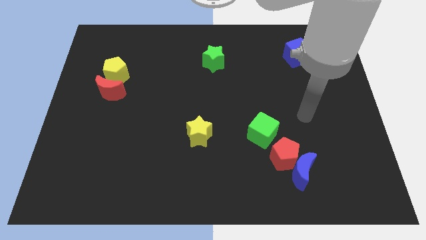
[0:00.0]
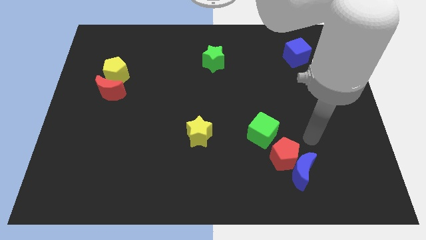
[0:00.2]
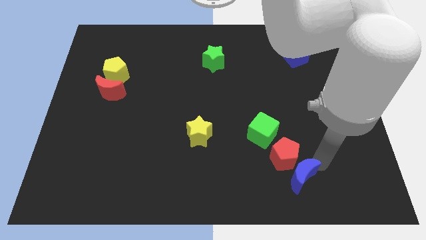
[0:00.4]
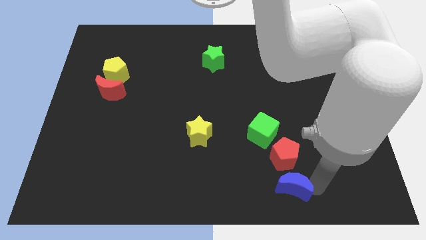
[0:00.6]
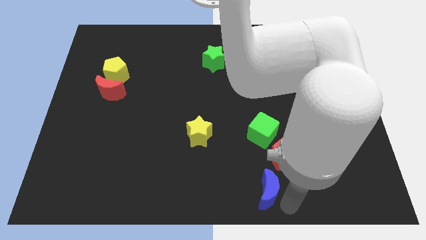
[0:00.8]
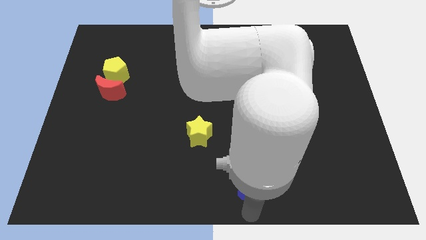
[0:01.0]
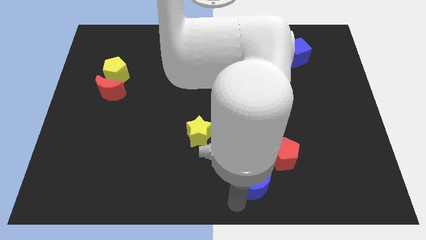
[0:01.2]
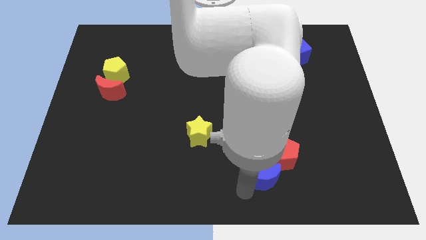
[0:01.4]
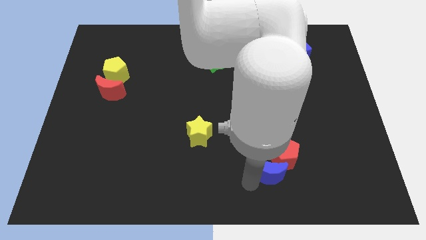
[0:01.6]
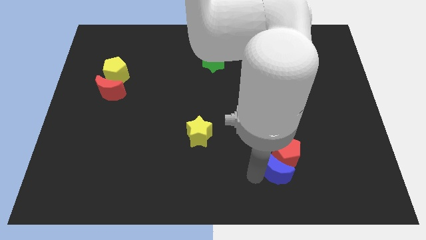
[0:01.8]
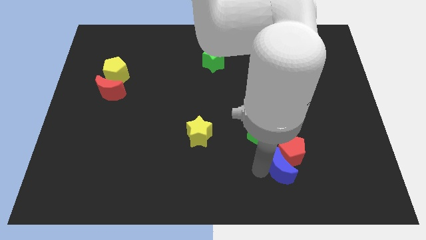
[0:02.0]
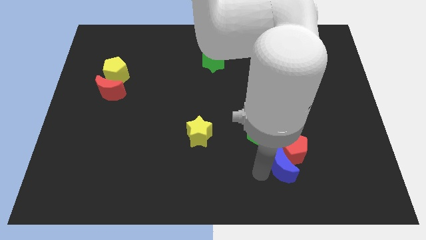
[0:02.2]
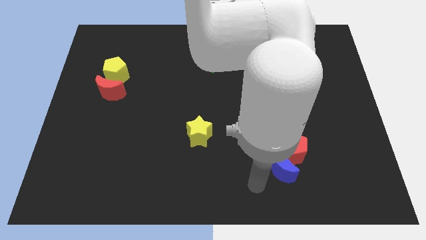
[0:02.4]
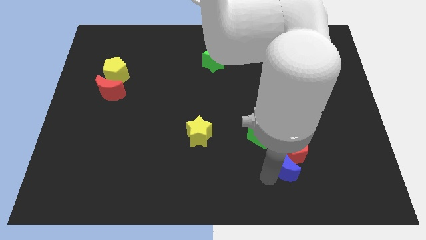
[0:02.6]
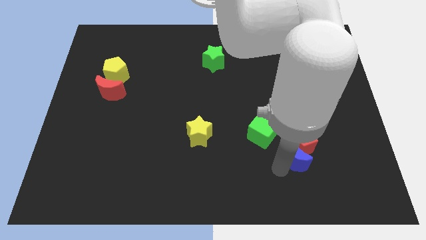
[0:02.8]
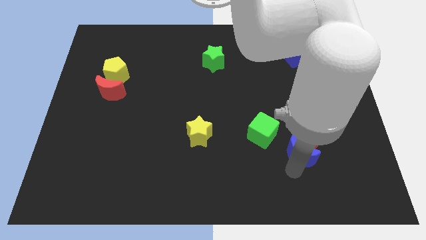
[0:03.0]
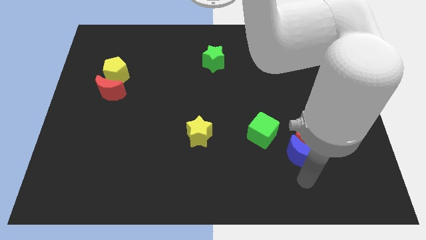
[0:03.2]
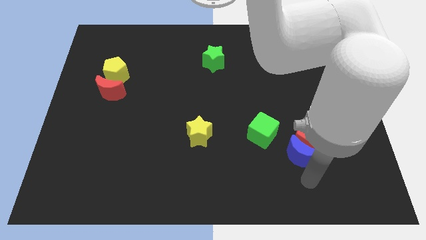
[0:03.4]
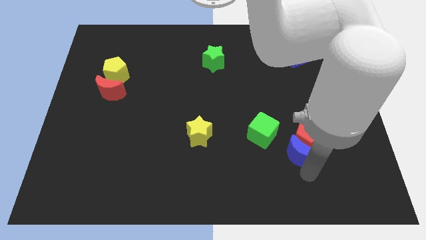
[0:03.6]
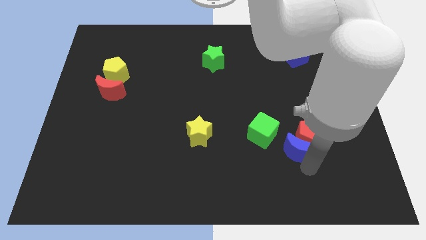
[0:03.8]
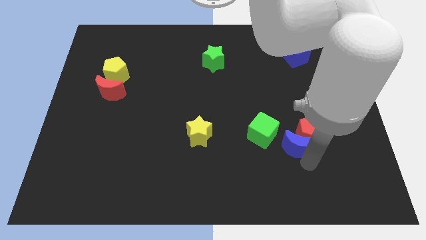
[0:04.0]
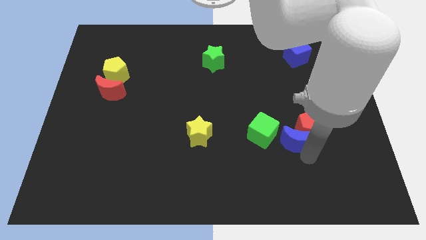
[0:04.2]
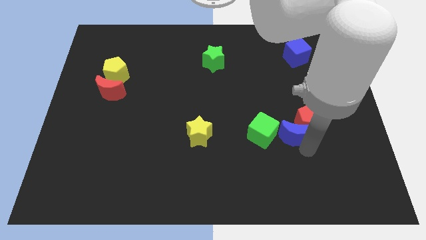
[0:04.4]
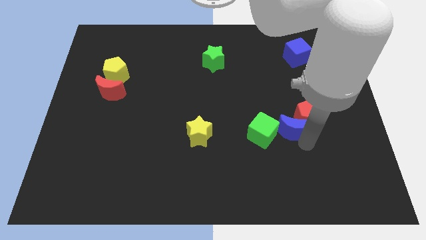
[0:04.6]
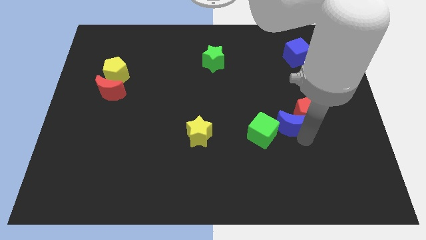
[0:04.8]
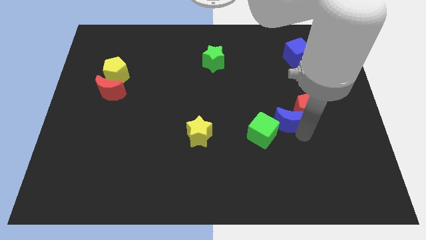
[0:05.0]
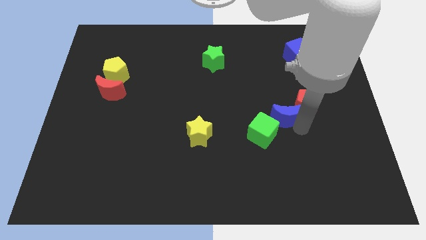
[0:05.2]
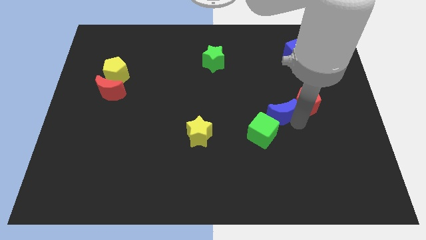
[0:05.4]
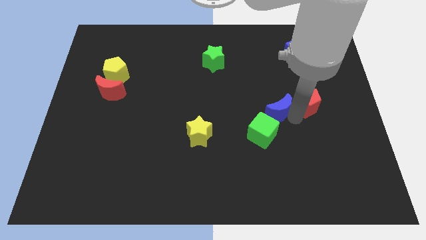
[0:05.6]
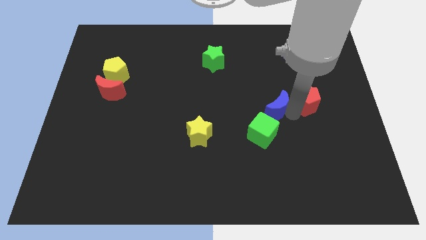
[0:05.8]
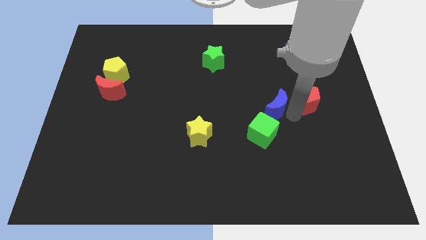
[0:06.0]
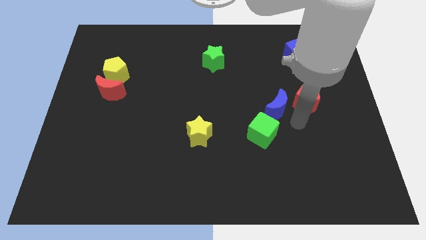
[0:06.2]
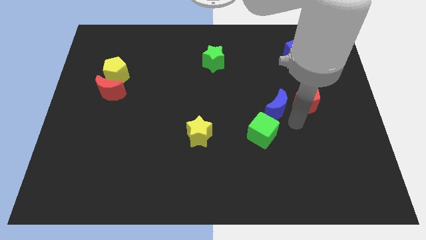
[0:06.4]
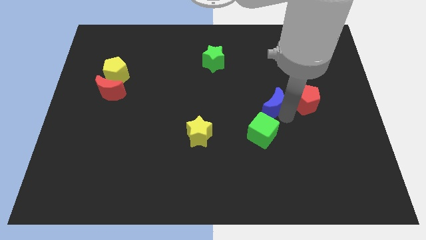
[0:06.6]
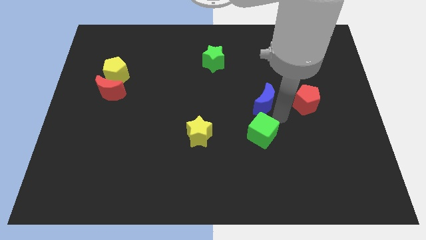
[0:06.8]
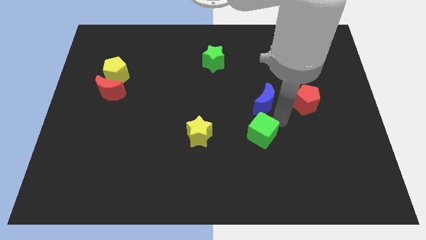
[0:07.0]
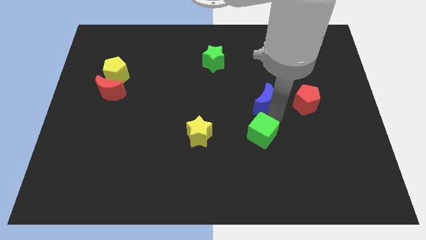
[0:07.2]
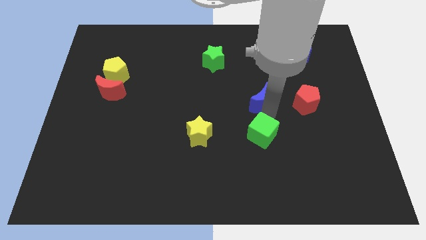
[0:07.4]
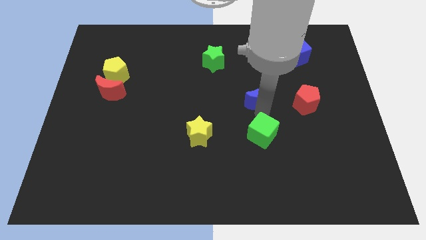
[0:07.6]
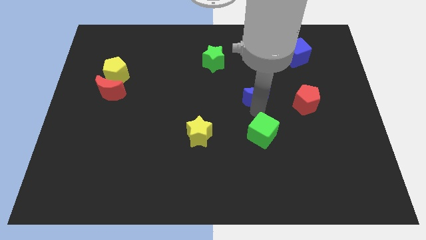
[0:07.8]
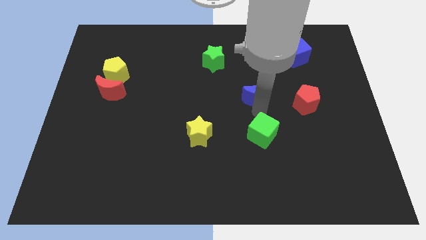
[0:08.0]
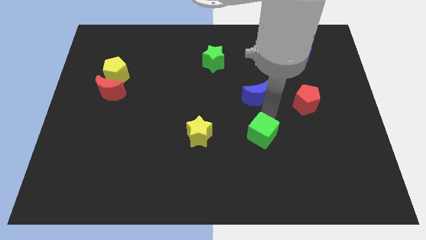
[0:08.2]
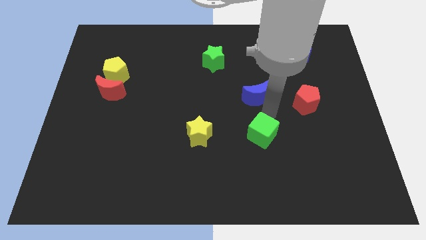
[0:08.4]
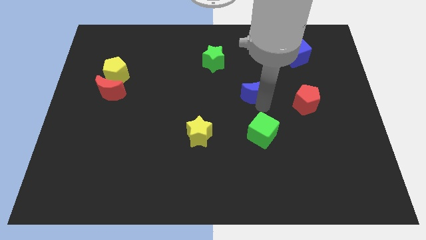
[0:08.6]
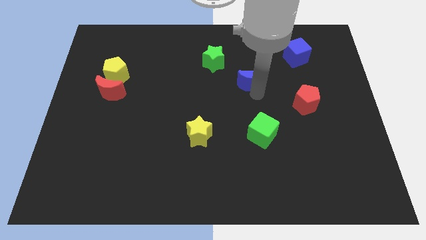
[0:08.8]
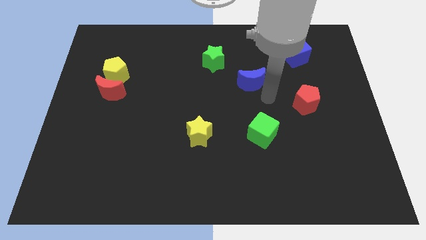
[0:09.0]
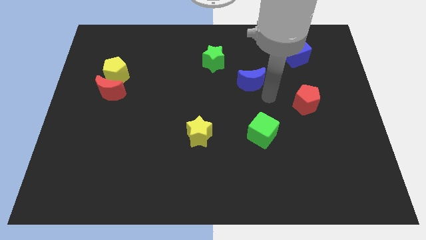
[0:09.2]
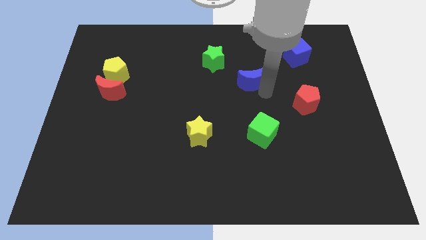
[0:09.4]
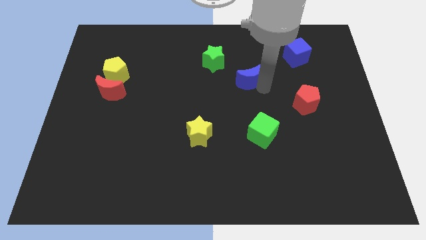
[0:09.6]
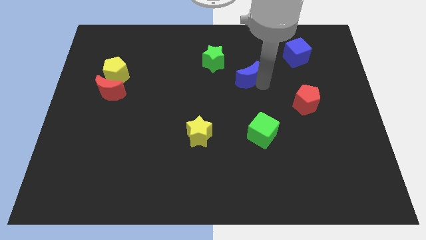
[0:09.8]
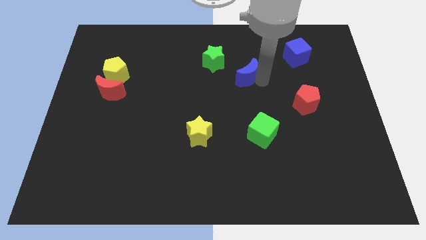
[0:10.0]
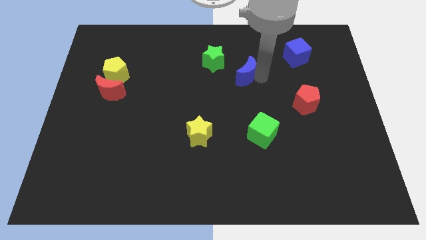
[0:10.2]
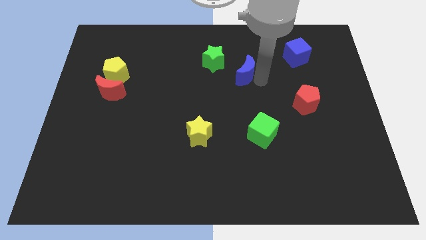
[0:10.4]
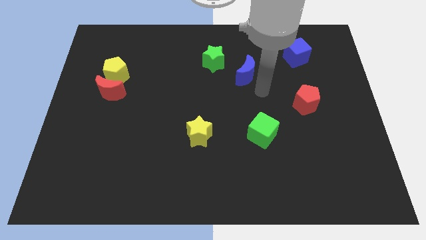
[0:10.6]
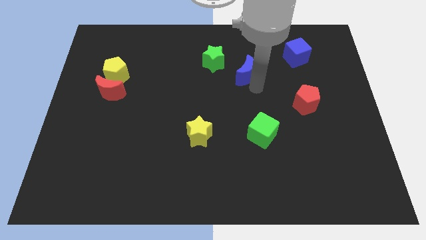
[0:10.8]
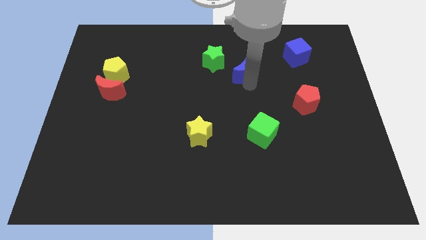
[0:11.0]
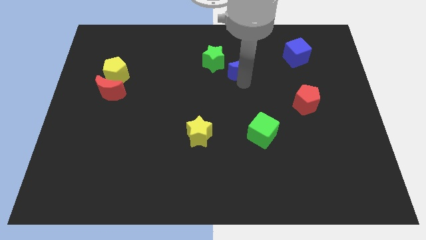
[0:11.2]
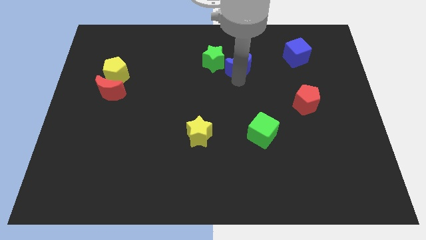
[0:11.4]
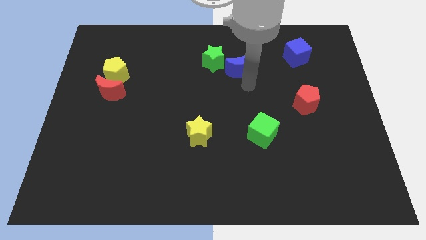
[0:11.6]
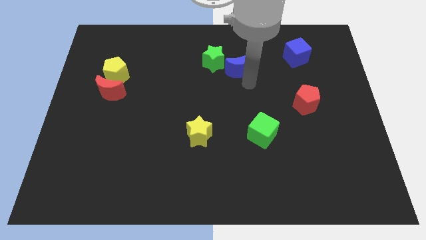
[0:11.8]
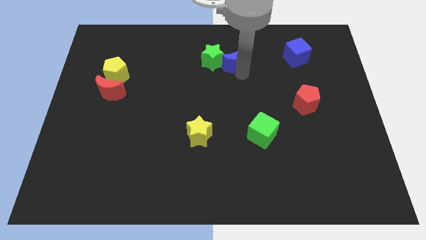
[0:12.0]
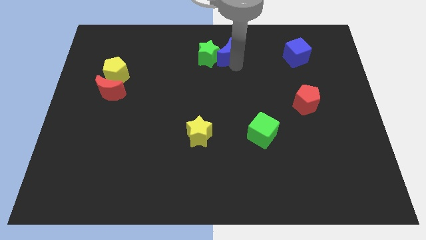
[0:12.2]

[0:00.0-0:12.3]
put the blue moon to the top

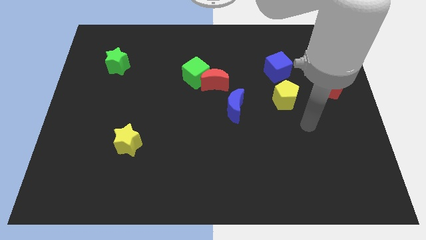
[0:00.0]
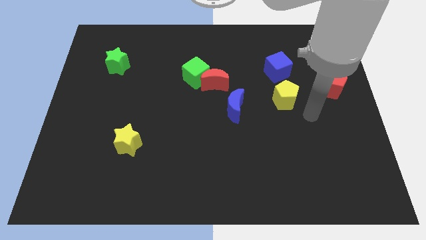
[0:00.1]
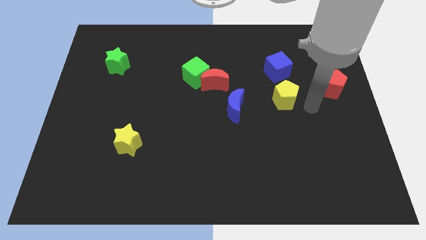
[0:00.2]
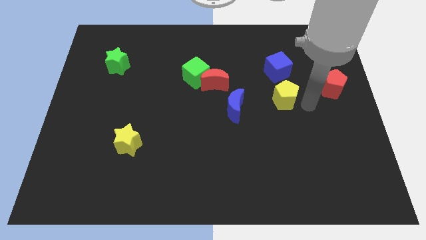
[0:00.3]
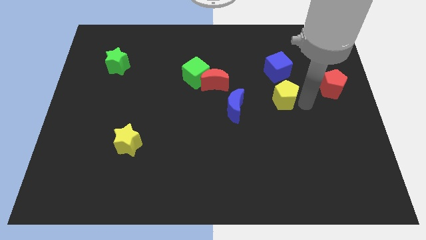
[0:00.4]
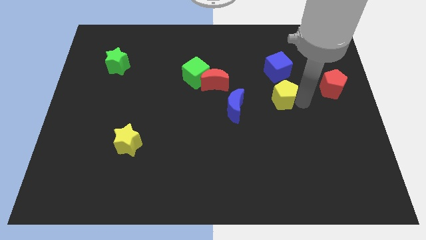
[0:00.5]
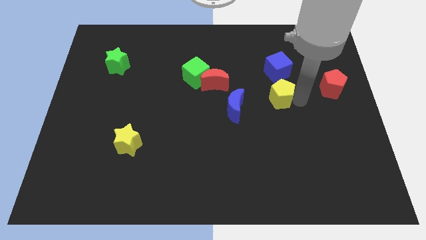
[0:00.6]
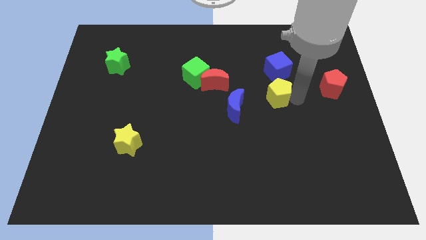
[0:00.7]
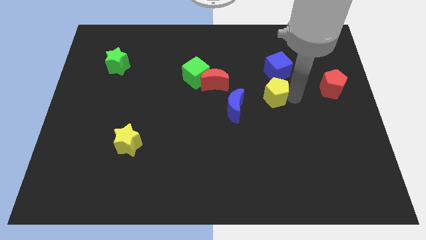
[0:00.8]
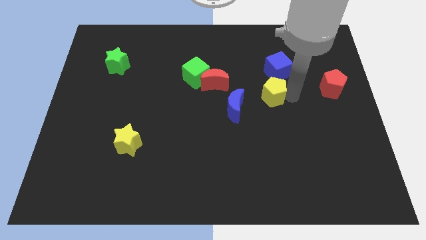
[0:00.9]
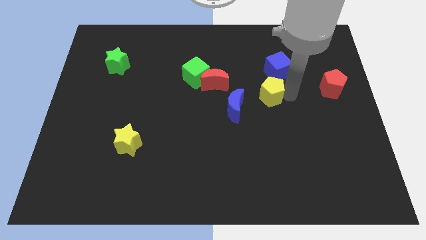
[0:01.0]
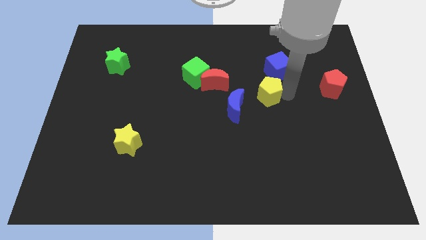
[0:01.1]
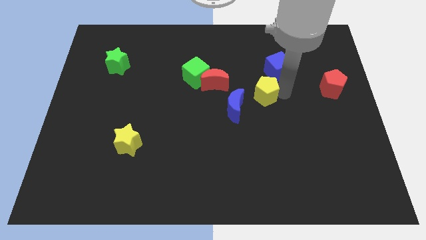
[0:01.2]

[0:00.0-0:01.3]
slide the yellow pentagon to the middle of the board
